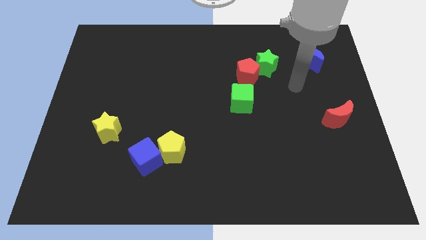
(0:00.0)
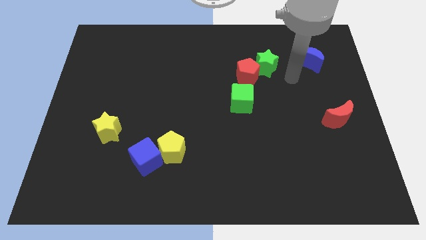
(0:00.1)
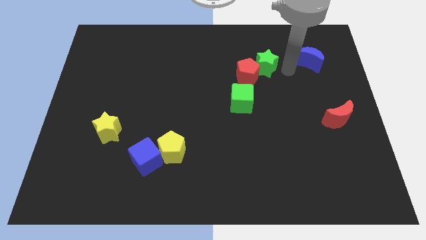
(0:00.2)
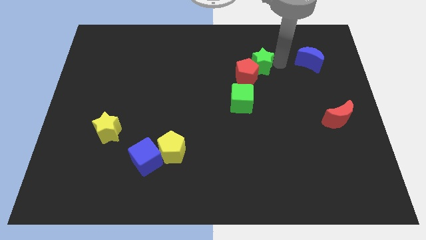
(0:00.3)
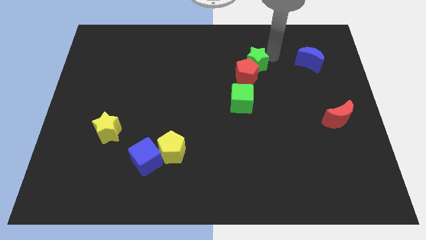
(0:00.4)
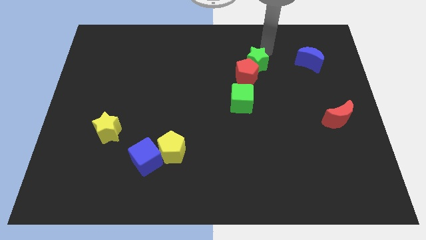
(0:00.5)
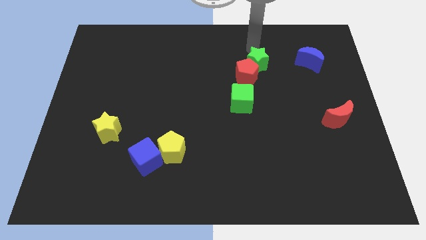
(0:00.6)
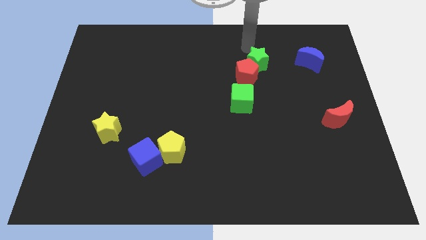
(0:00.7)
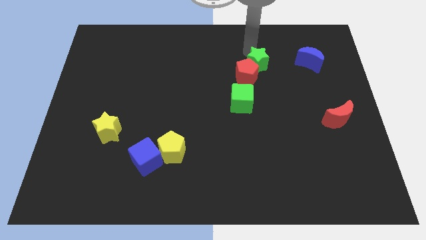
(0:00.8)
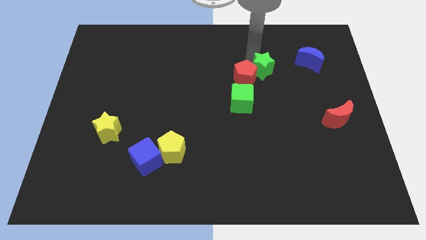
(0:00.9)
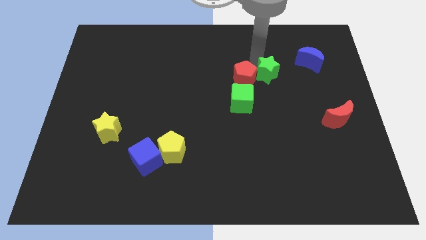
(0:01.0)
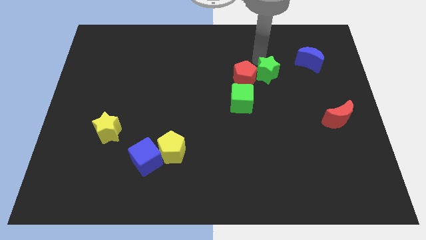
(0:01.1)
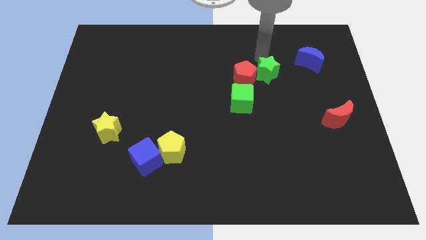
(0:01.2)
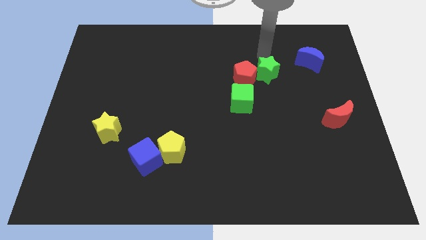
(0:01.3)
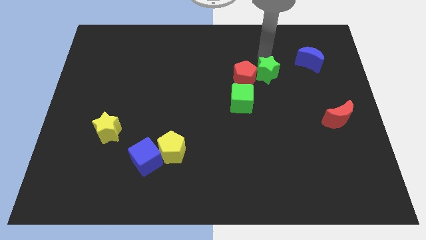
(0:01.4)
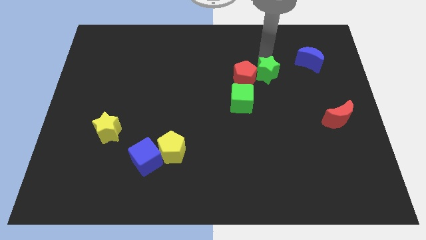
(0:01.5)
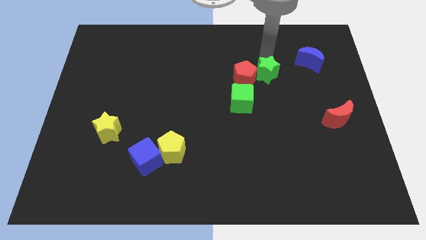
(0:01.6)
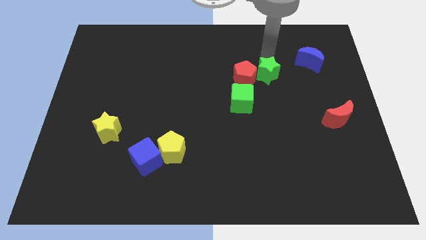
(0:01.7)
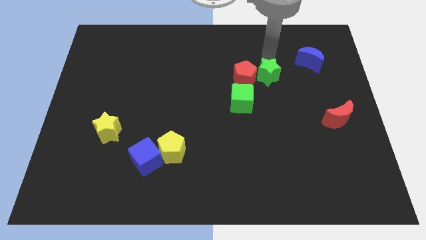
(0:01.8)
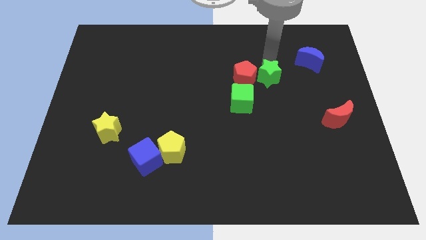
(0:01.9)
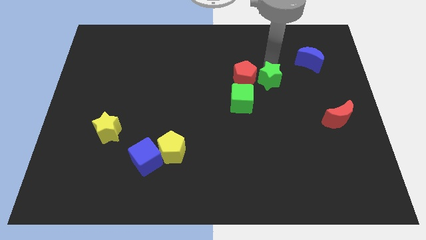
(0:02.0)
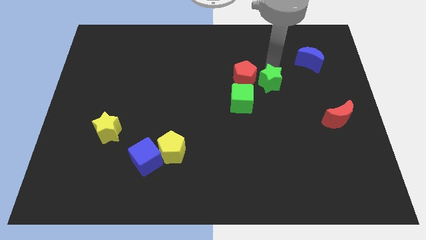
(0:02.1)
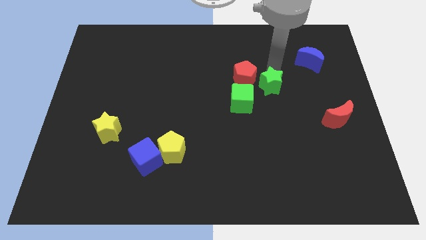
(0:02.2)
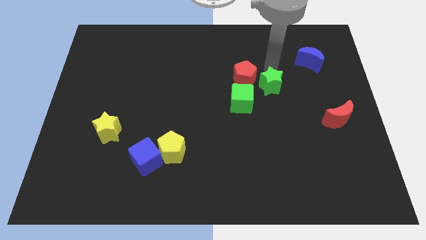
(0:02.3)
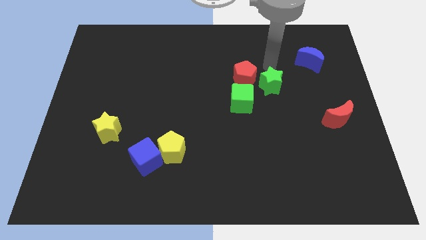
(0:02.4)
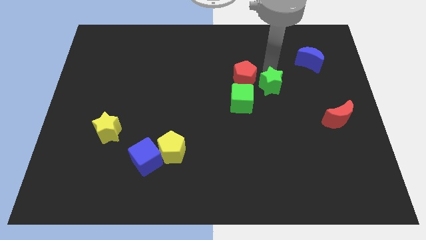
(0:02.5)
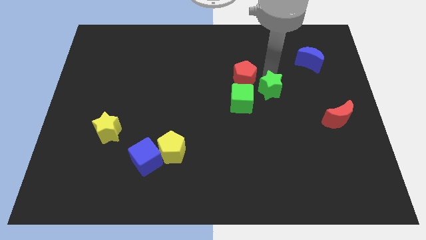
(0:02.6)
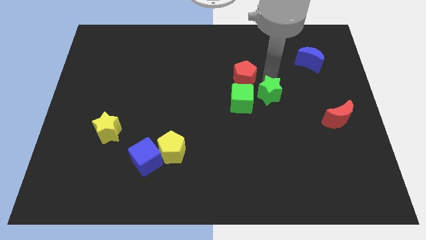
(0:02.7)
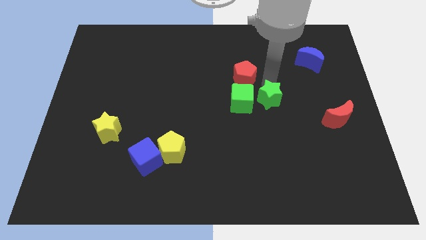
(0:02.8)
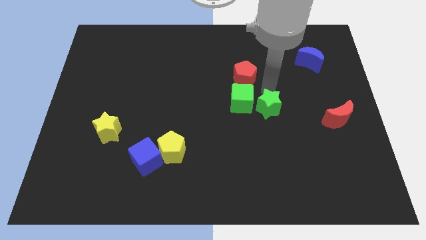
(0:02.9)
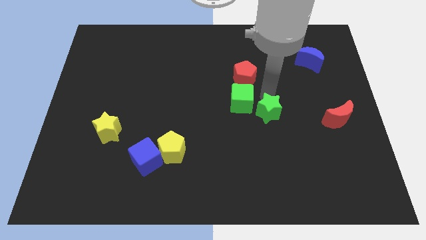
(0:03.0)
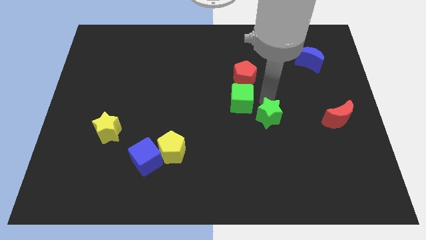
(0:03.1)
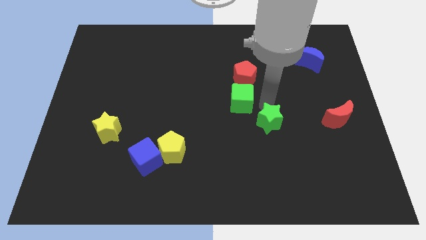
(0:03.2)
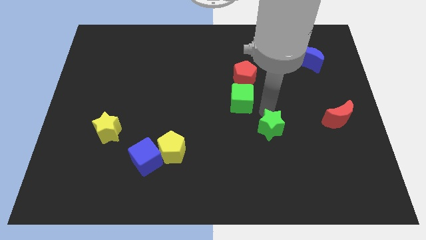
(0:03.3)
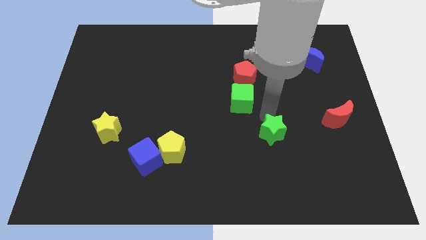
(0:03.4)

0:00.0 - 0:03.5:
push the green star down

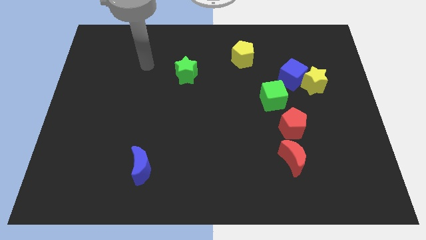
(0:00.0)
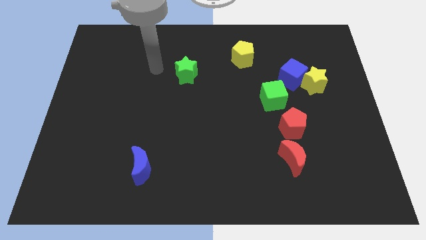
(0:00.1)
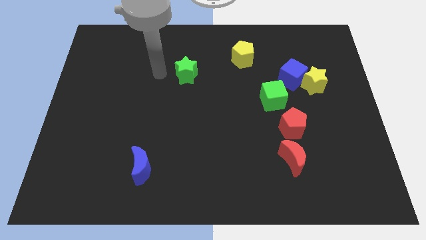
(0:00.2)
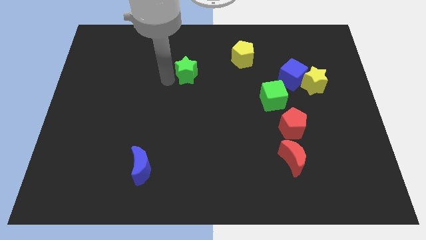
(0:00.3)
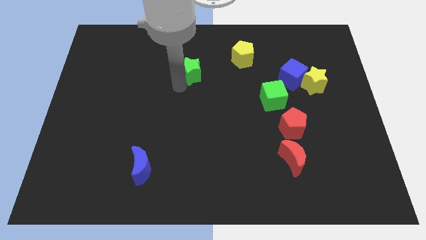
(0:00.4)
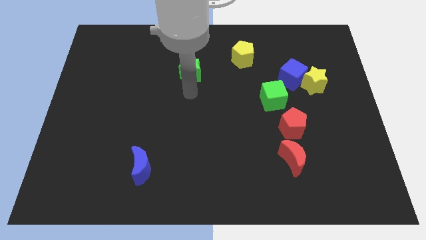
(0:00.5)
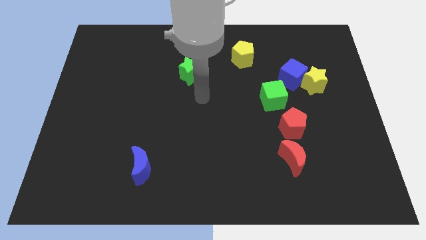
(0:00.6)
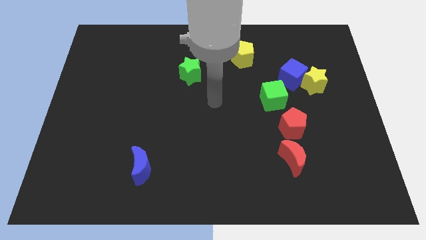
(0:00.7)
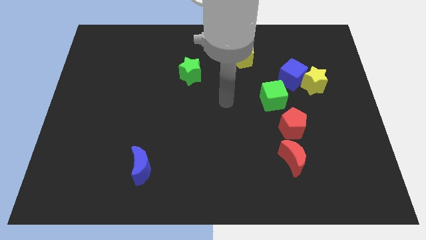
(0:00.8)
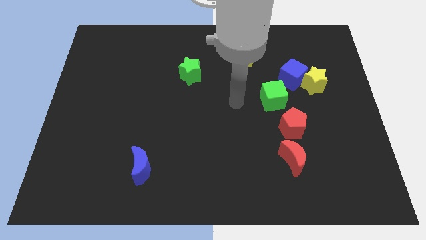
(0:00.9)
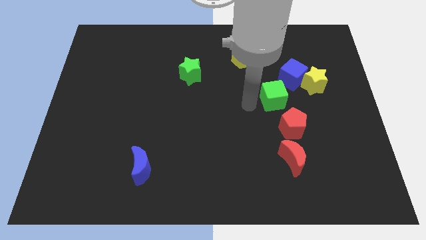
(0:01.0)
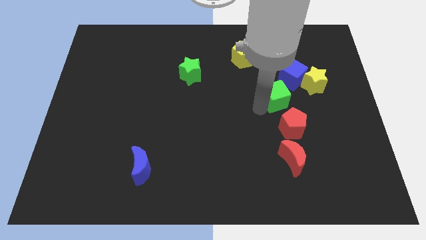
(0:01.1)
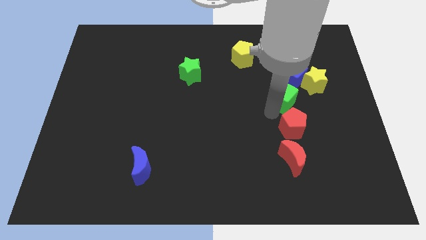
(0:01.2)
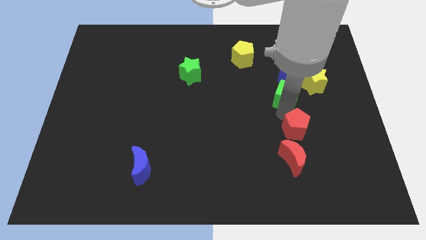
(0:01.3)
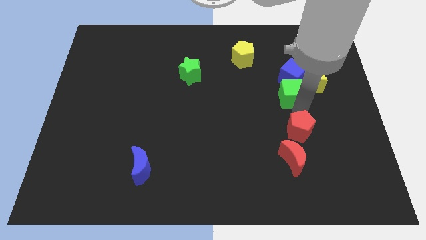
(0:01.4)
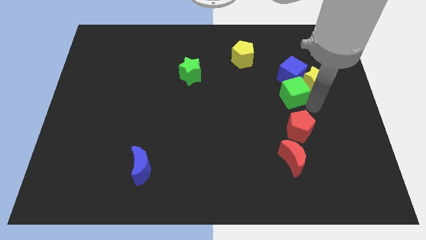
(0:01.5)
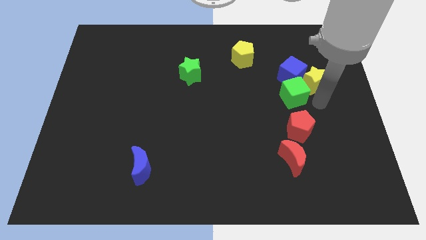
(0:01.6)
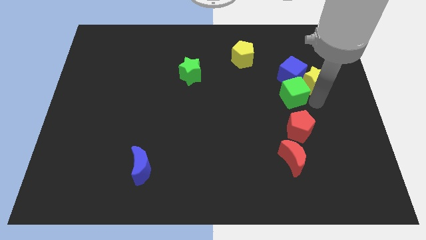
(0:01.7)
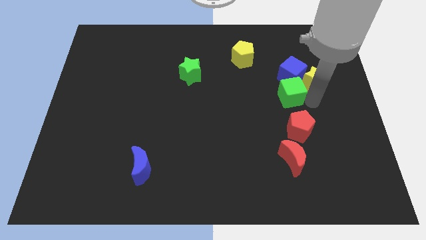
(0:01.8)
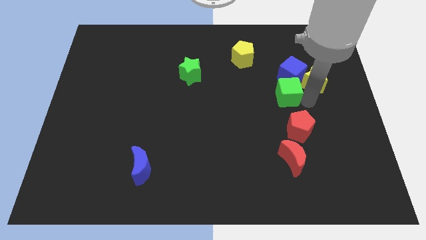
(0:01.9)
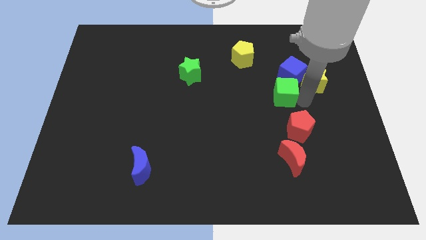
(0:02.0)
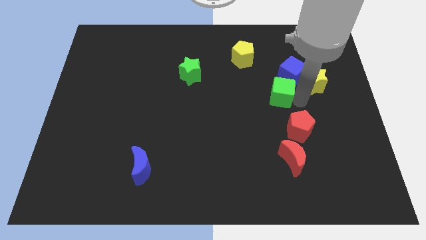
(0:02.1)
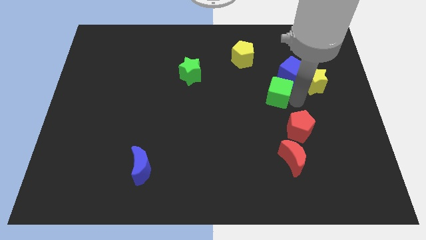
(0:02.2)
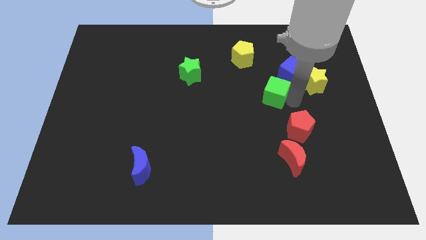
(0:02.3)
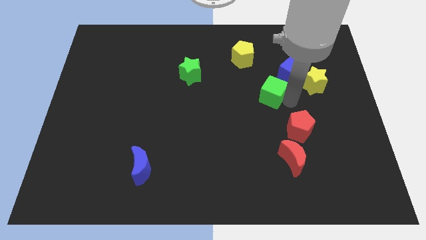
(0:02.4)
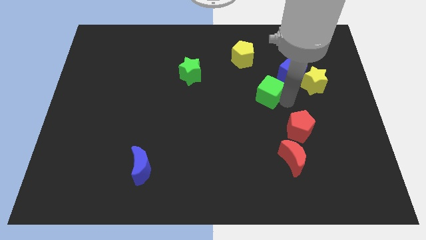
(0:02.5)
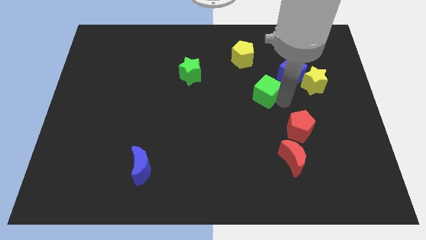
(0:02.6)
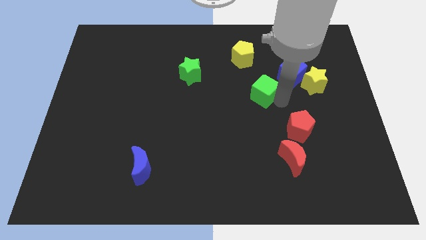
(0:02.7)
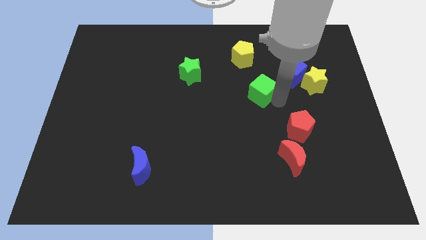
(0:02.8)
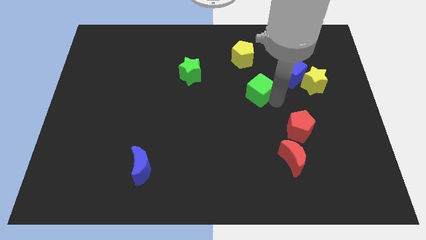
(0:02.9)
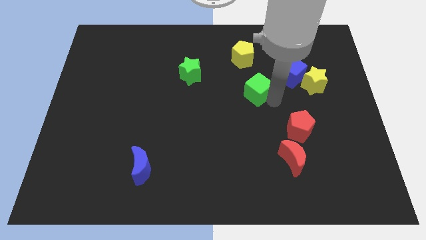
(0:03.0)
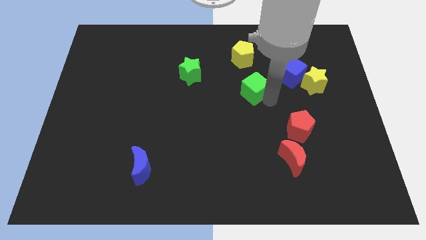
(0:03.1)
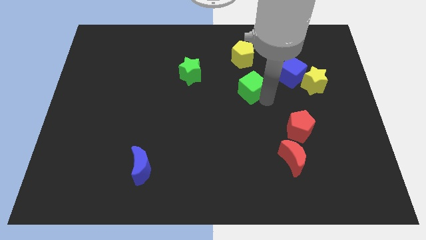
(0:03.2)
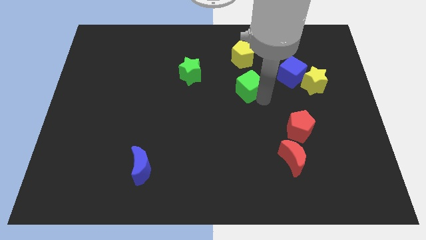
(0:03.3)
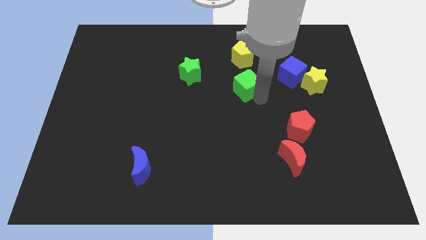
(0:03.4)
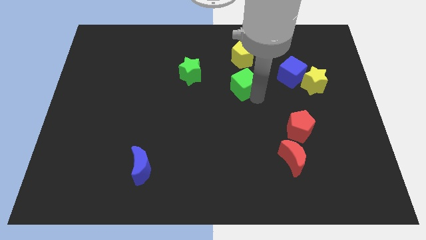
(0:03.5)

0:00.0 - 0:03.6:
slightly push the green cube diagonally up and to the left

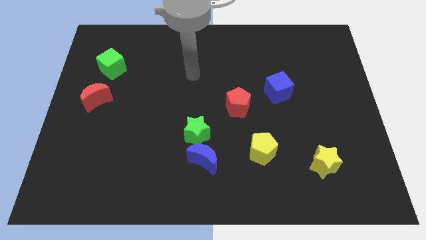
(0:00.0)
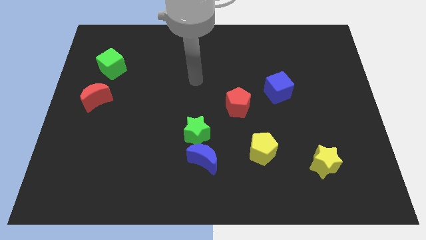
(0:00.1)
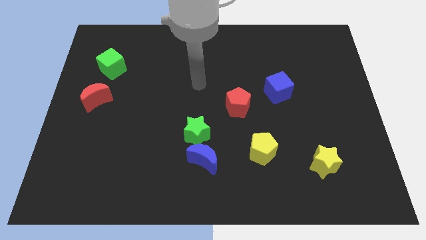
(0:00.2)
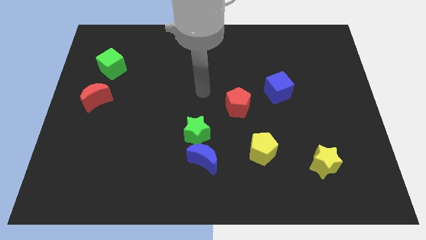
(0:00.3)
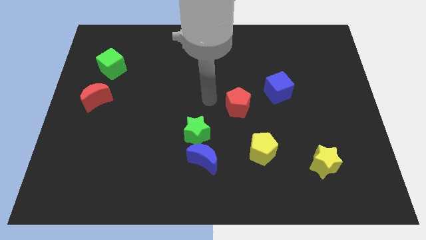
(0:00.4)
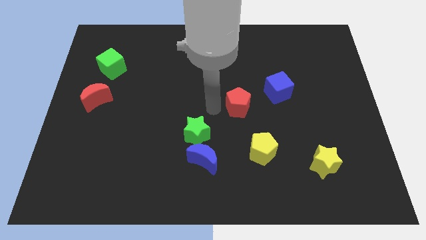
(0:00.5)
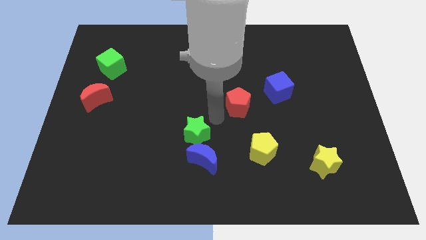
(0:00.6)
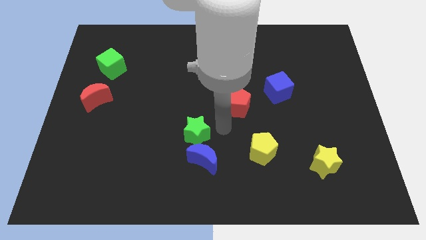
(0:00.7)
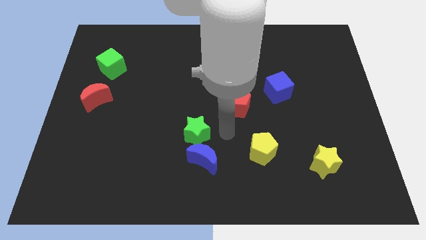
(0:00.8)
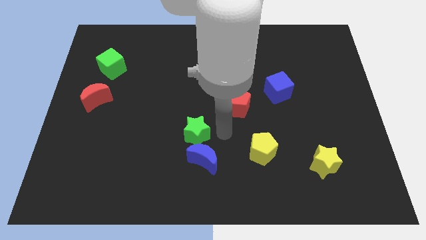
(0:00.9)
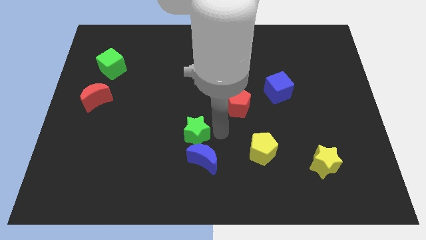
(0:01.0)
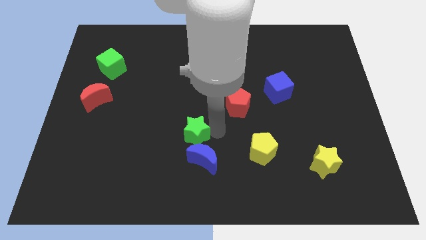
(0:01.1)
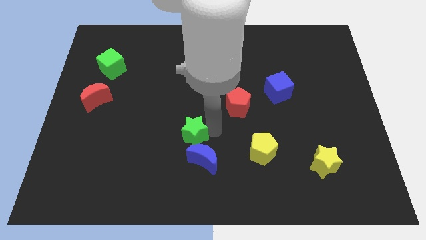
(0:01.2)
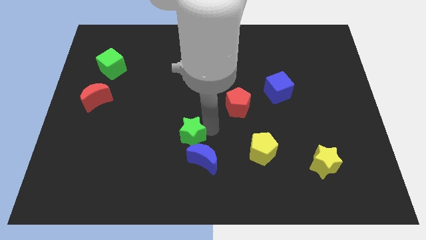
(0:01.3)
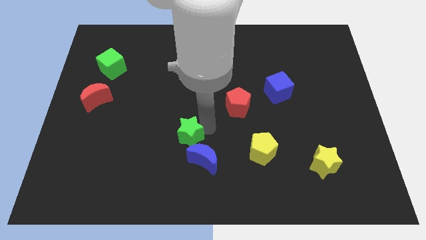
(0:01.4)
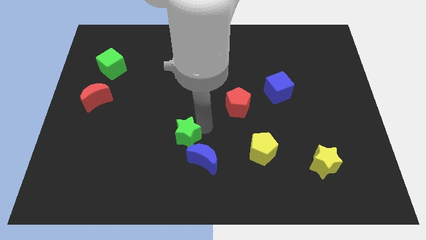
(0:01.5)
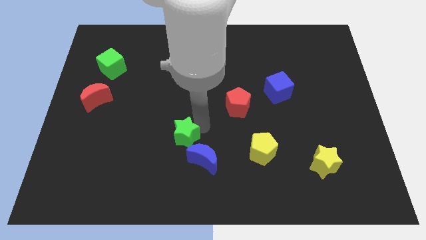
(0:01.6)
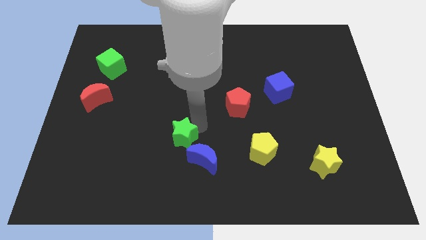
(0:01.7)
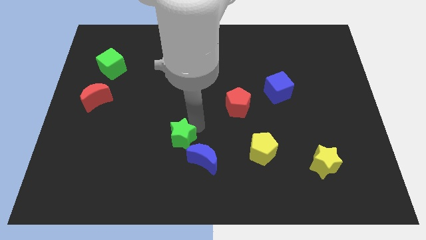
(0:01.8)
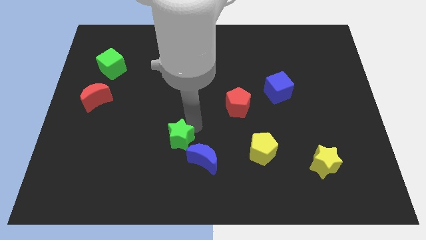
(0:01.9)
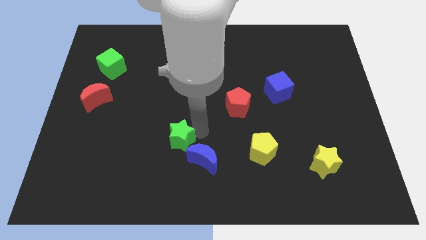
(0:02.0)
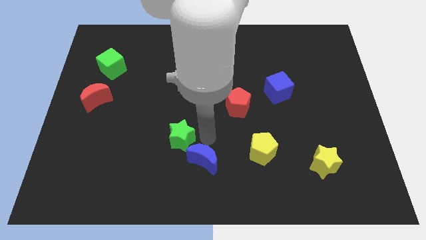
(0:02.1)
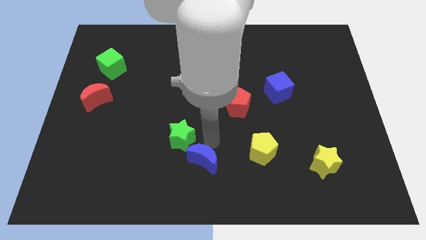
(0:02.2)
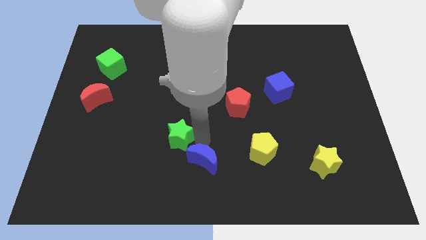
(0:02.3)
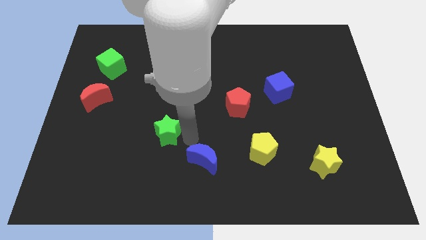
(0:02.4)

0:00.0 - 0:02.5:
move the green star a bit to the left
